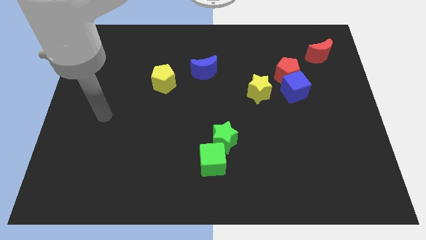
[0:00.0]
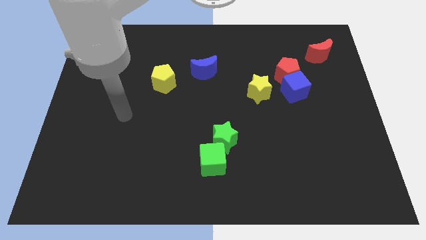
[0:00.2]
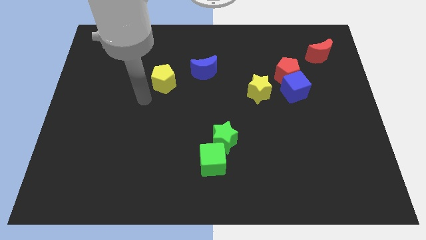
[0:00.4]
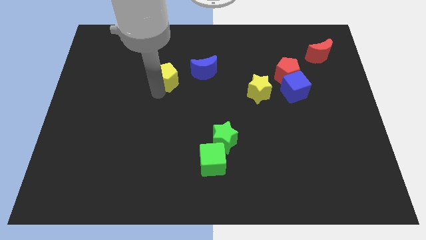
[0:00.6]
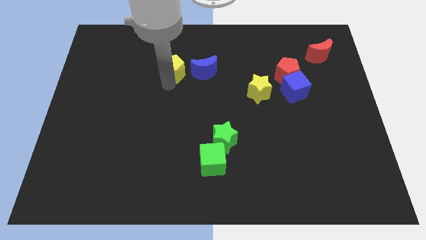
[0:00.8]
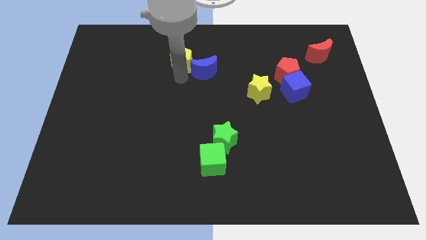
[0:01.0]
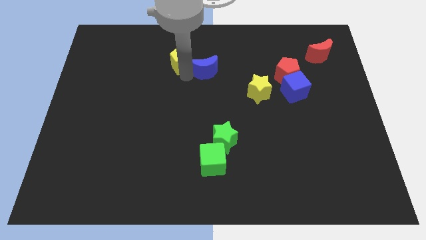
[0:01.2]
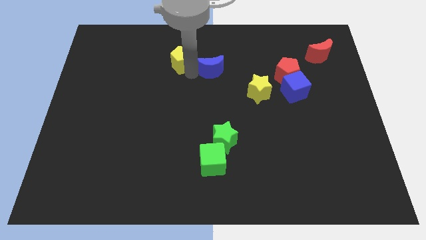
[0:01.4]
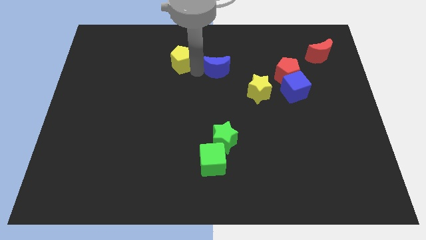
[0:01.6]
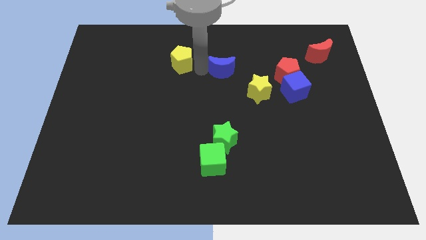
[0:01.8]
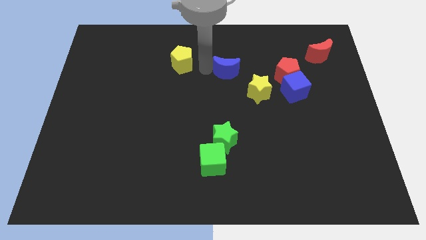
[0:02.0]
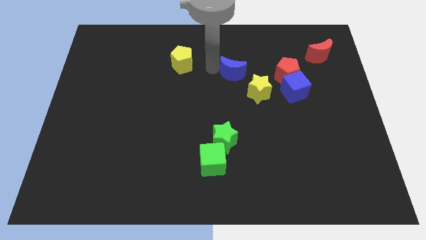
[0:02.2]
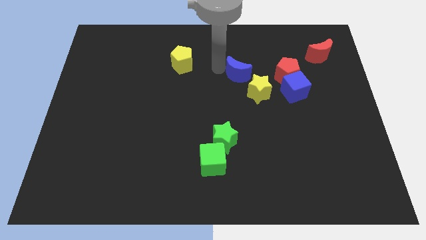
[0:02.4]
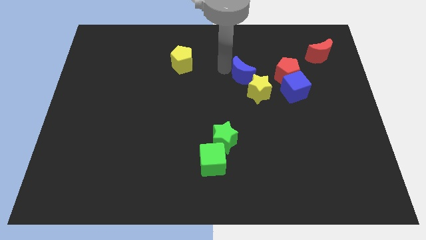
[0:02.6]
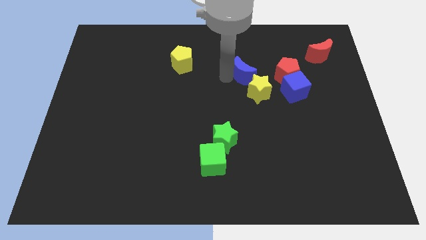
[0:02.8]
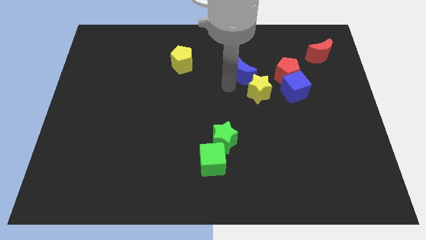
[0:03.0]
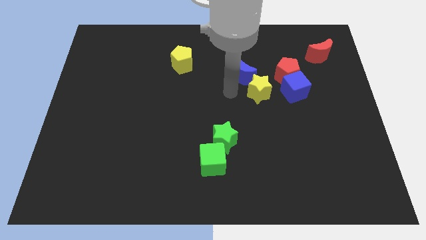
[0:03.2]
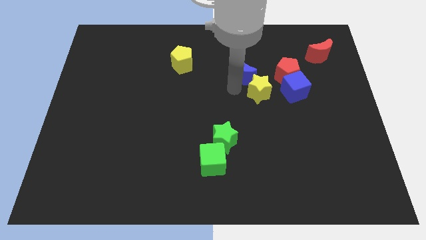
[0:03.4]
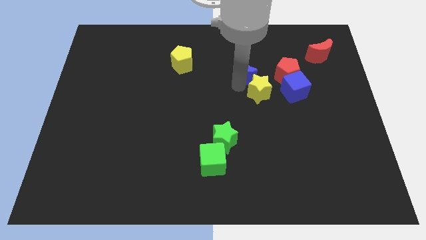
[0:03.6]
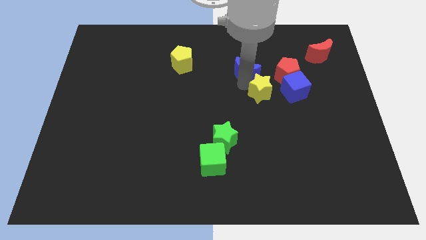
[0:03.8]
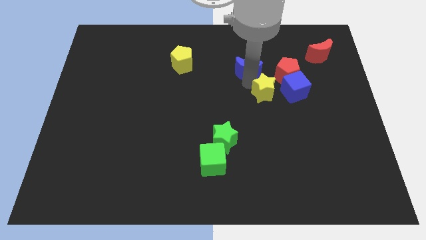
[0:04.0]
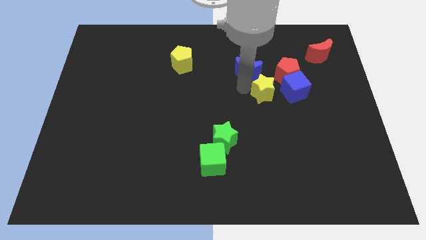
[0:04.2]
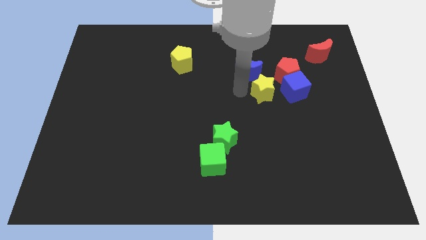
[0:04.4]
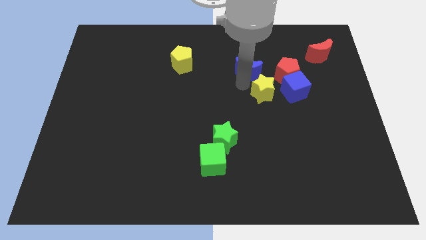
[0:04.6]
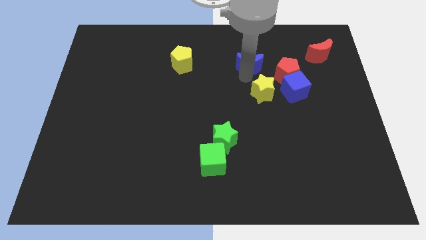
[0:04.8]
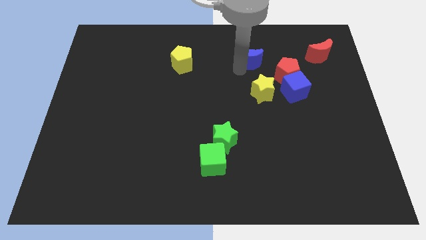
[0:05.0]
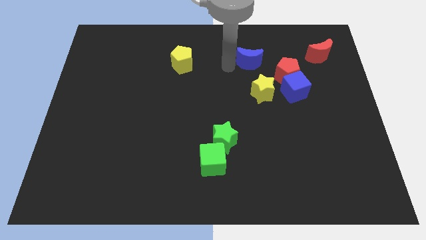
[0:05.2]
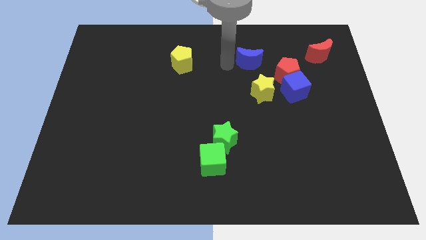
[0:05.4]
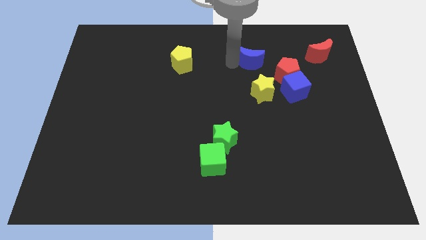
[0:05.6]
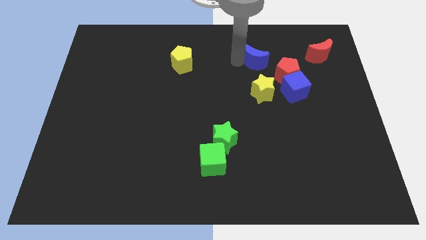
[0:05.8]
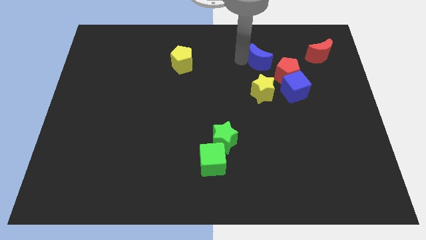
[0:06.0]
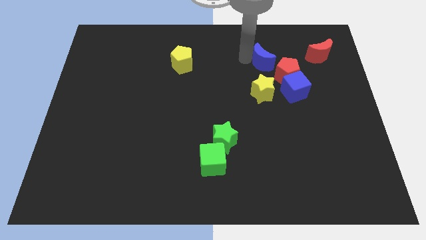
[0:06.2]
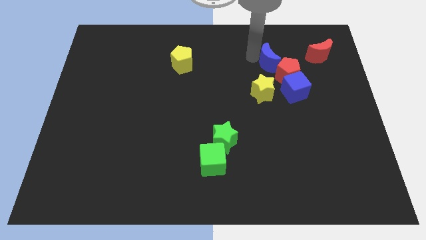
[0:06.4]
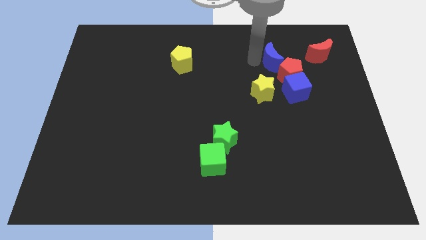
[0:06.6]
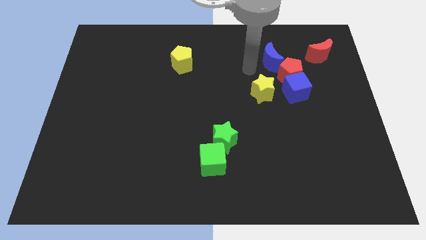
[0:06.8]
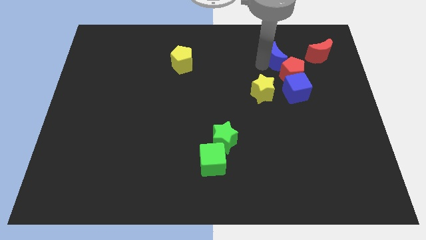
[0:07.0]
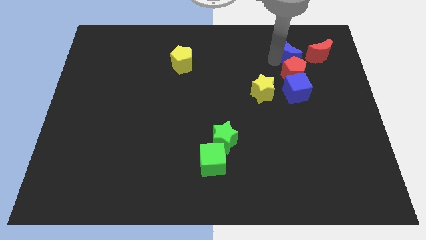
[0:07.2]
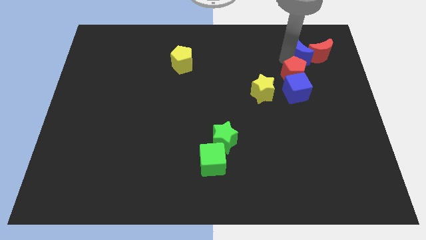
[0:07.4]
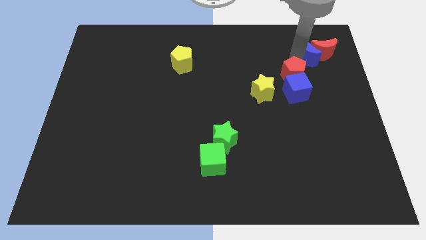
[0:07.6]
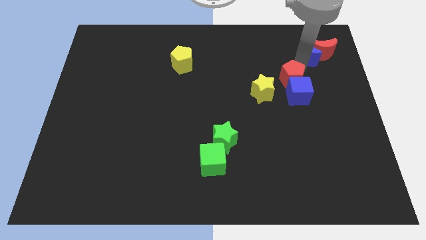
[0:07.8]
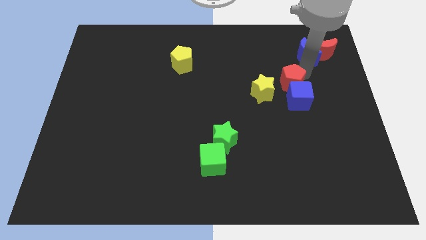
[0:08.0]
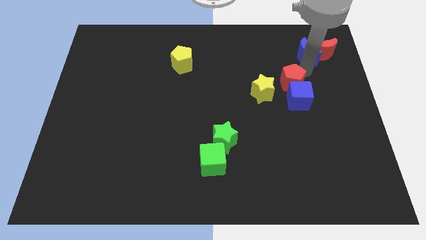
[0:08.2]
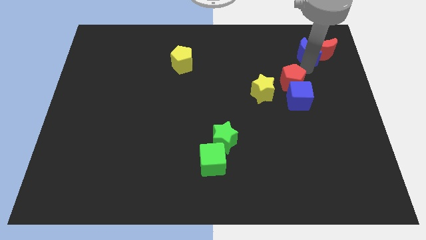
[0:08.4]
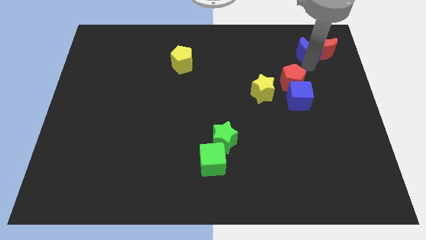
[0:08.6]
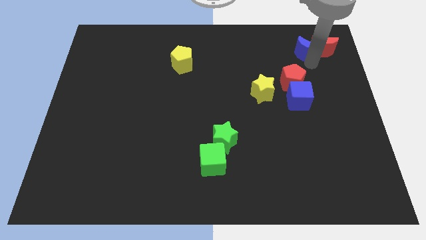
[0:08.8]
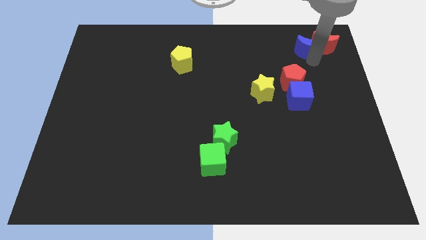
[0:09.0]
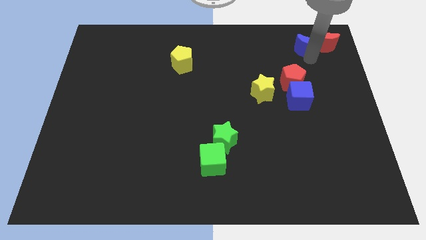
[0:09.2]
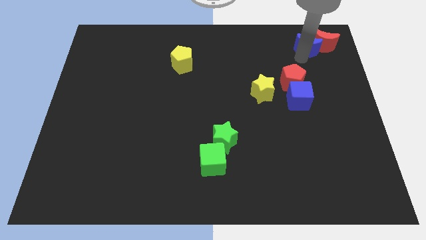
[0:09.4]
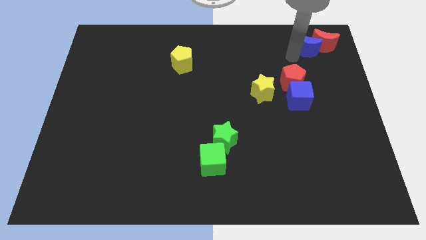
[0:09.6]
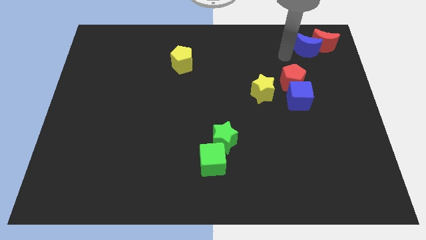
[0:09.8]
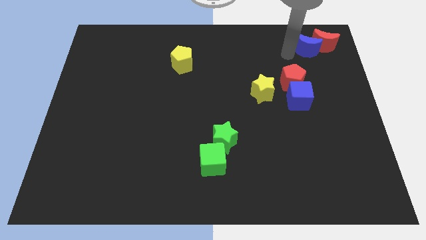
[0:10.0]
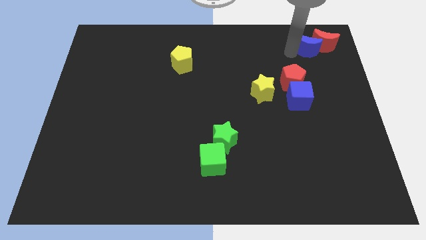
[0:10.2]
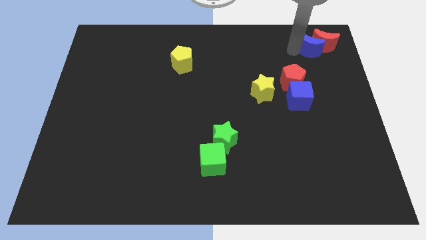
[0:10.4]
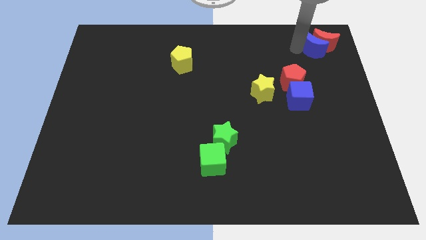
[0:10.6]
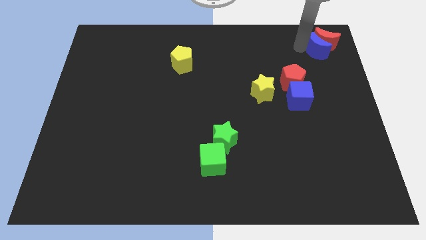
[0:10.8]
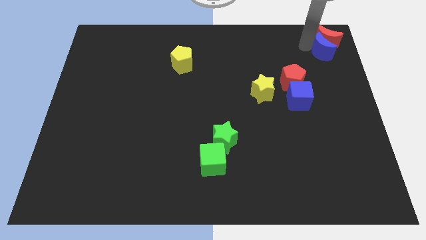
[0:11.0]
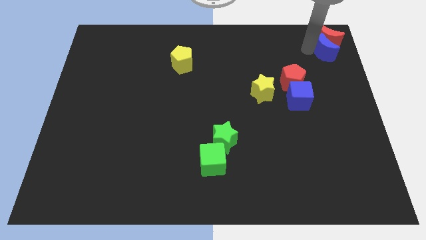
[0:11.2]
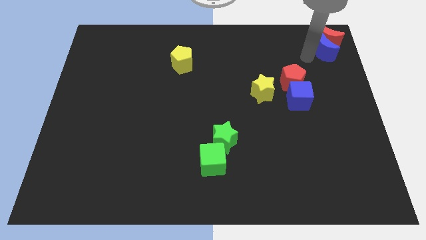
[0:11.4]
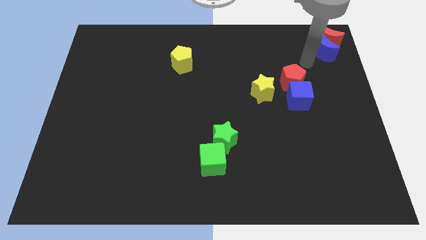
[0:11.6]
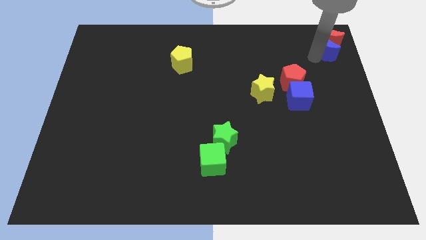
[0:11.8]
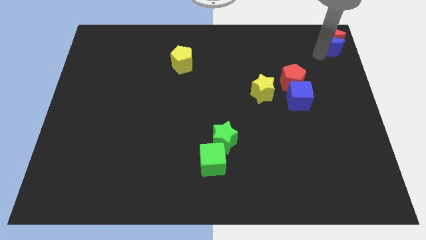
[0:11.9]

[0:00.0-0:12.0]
move the blue moon to the top right of the board
